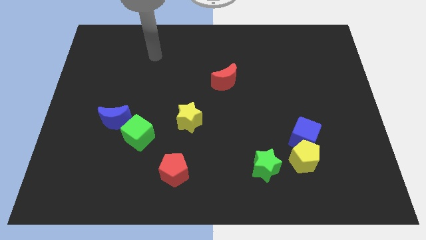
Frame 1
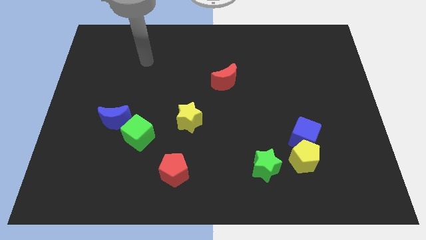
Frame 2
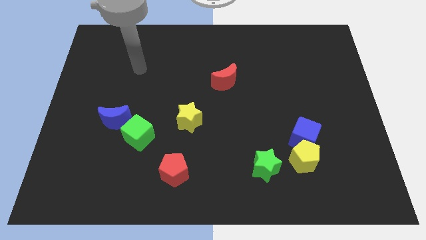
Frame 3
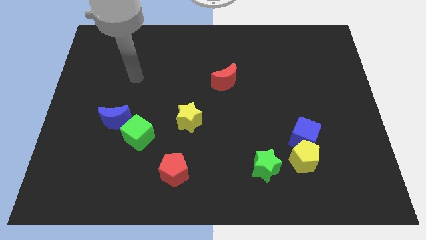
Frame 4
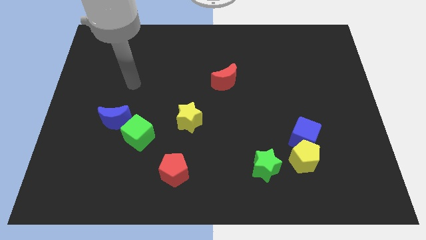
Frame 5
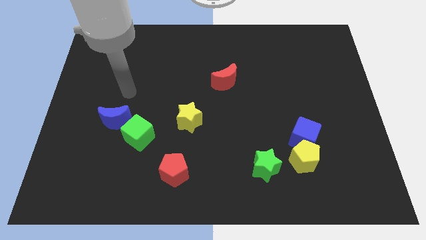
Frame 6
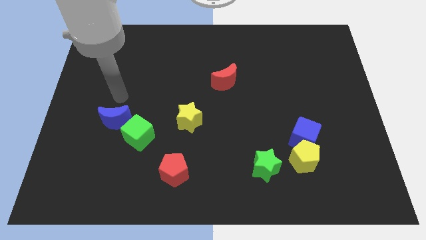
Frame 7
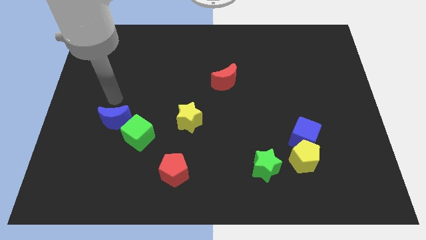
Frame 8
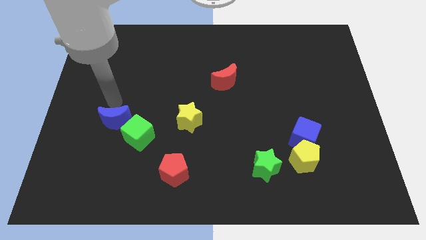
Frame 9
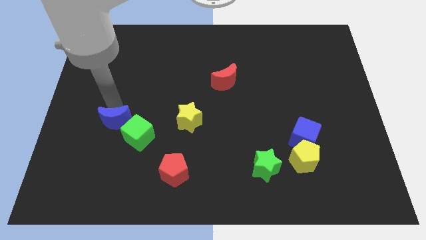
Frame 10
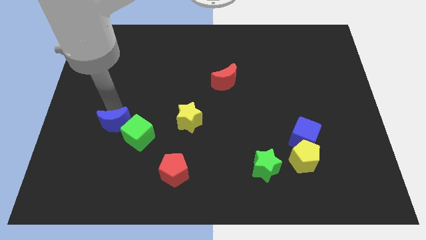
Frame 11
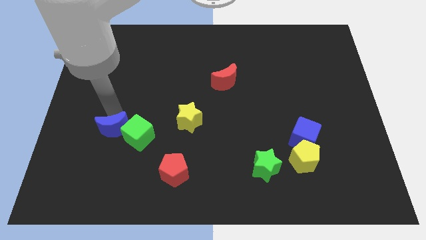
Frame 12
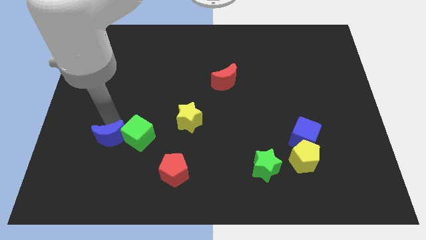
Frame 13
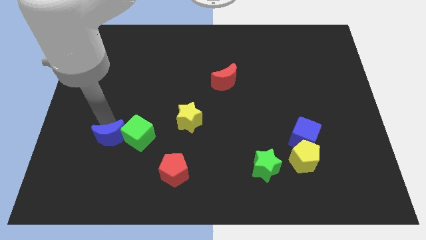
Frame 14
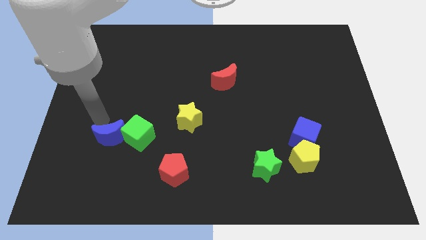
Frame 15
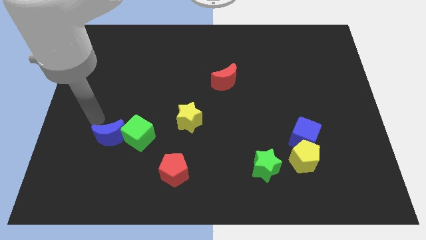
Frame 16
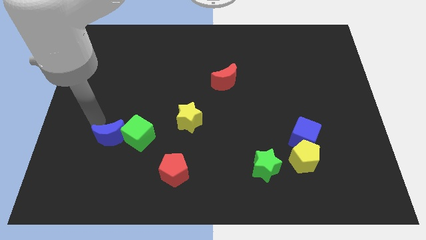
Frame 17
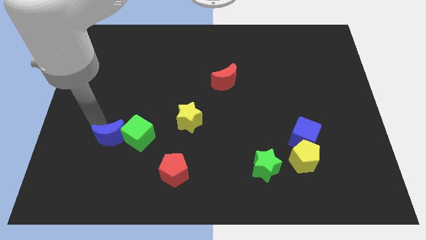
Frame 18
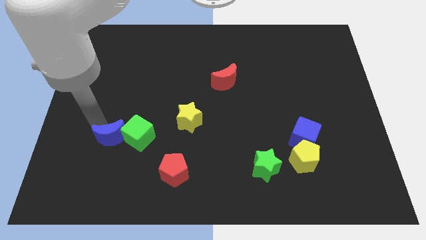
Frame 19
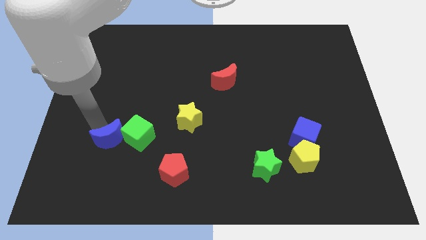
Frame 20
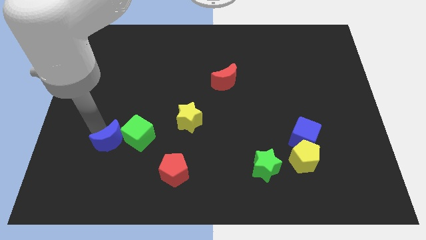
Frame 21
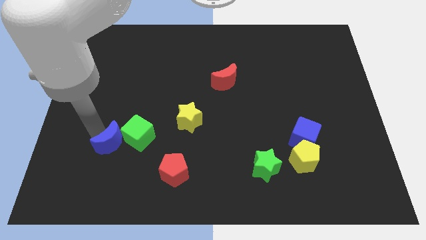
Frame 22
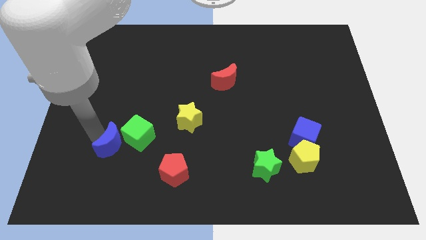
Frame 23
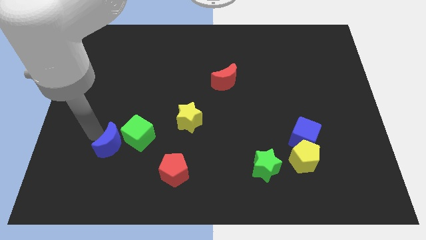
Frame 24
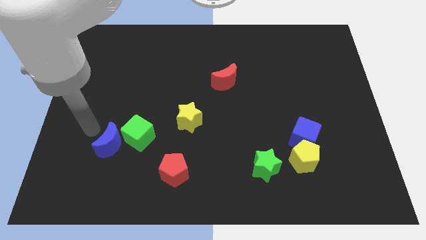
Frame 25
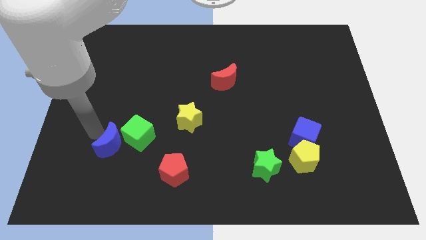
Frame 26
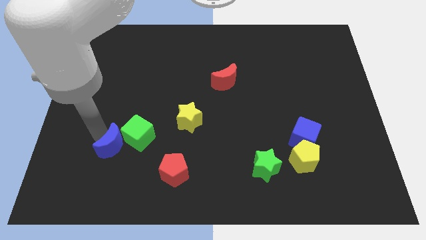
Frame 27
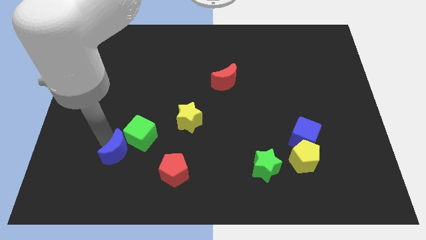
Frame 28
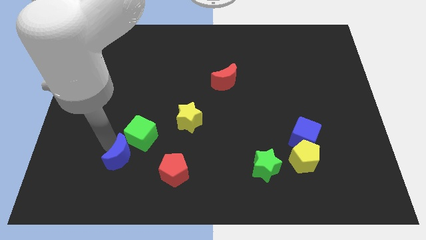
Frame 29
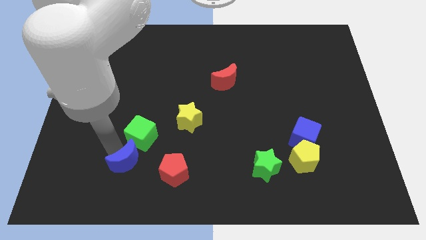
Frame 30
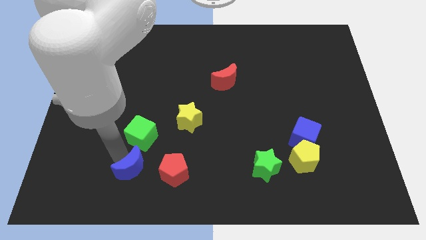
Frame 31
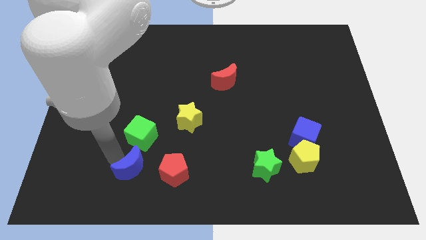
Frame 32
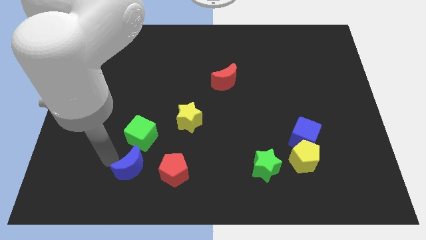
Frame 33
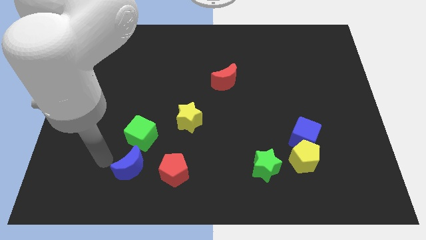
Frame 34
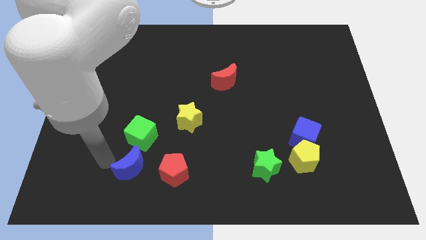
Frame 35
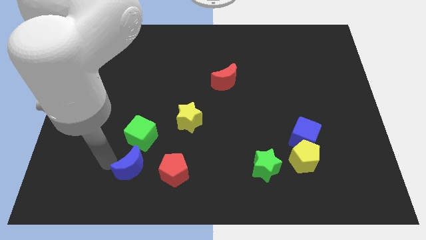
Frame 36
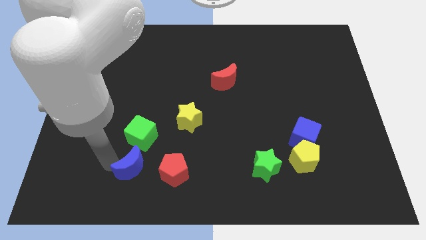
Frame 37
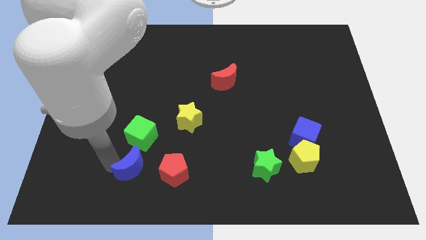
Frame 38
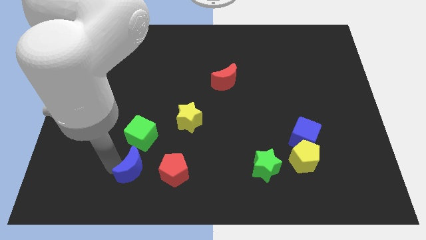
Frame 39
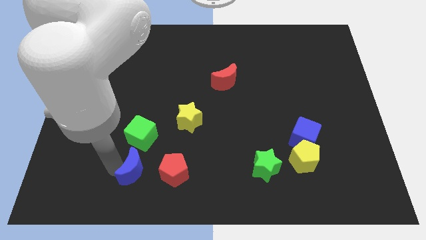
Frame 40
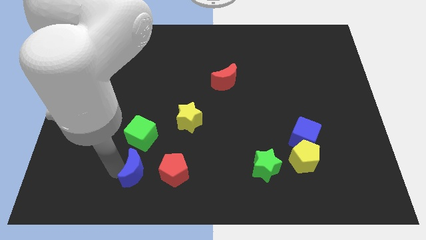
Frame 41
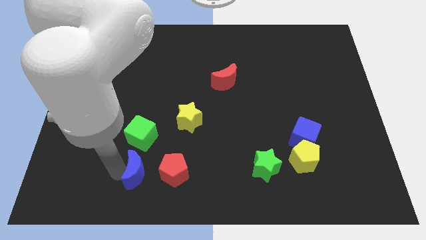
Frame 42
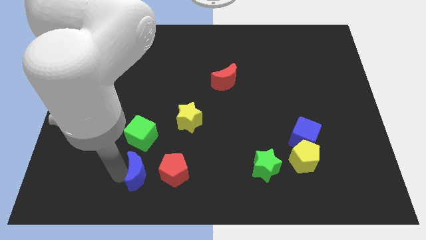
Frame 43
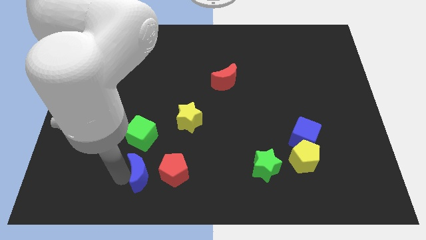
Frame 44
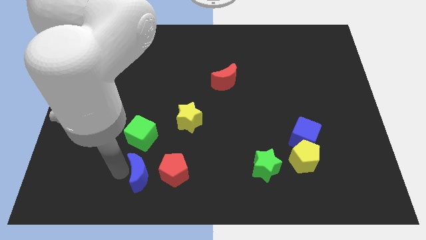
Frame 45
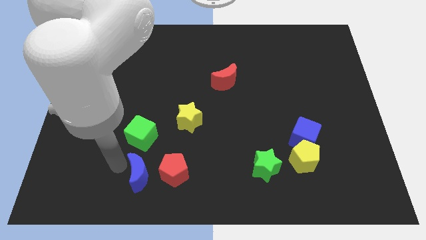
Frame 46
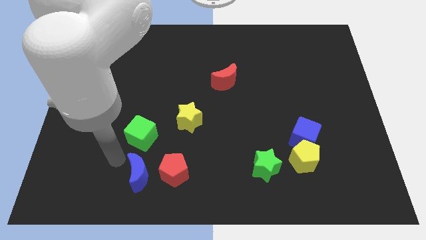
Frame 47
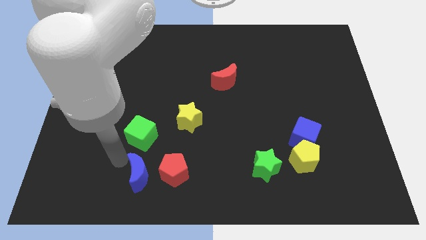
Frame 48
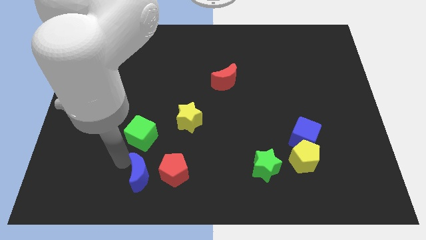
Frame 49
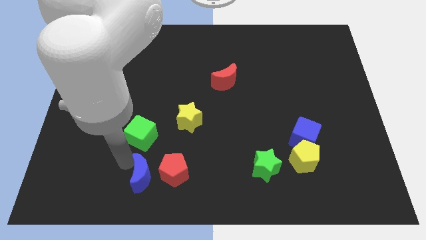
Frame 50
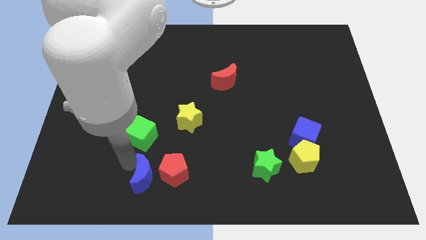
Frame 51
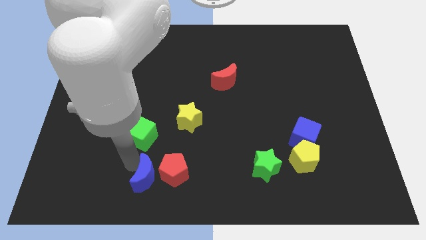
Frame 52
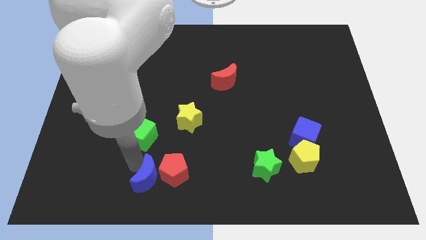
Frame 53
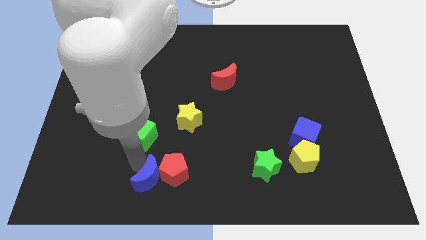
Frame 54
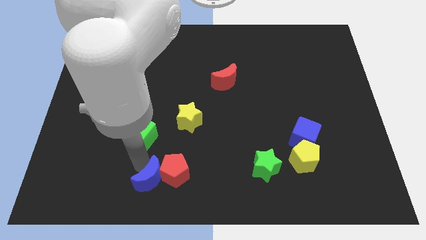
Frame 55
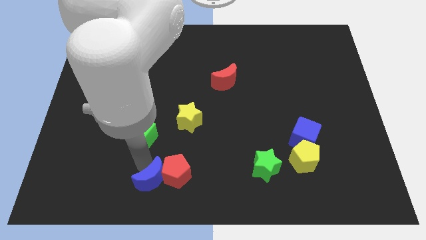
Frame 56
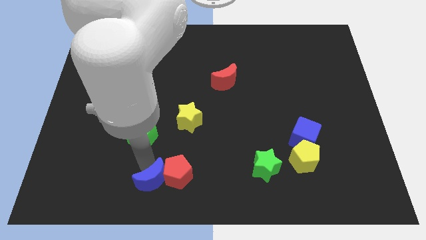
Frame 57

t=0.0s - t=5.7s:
move the blue moon to the bottom side
